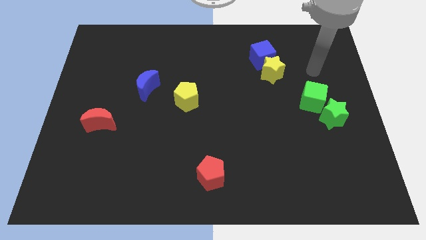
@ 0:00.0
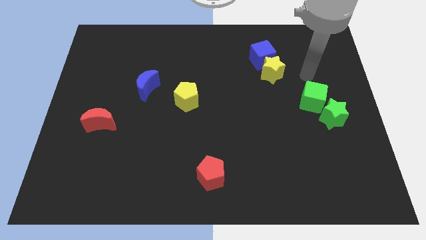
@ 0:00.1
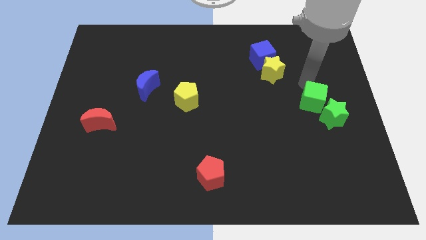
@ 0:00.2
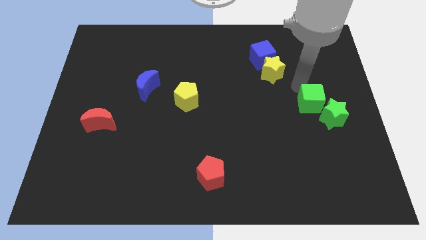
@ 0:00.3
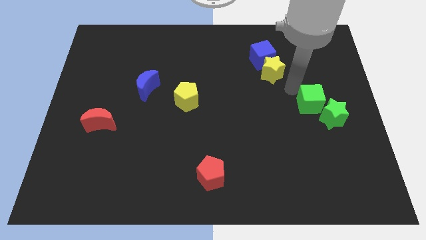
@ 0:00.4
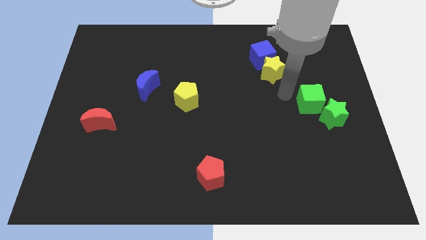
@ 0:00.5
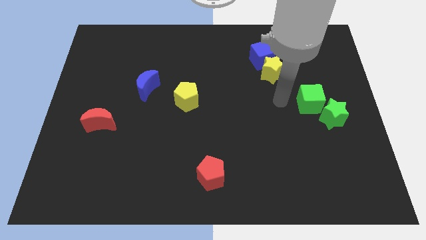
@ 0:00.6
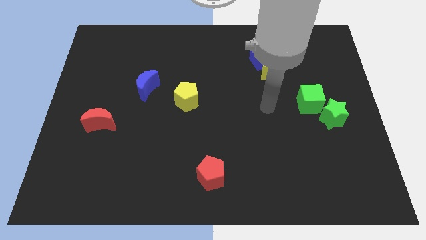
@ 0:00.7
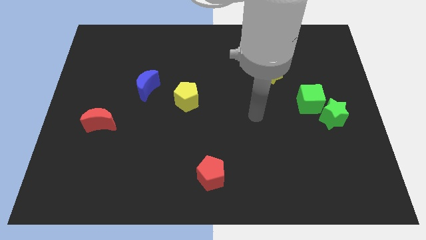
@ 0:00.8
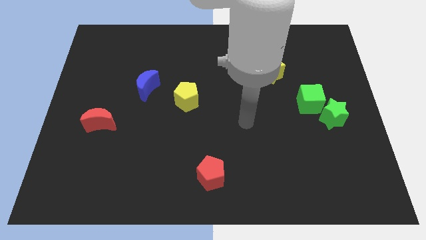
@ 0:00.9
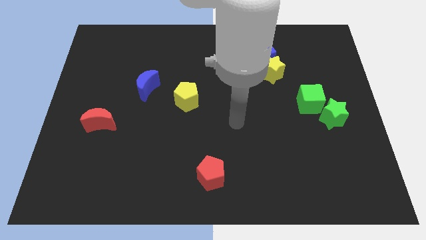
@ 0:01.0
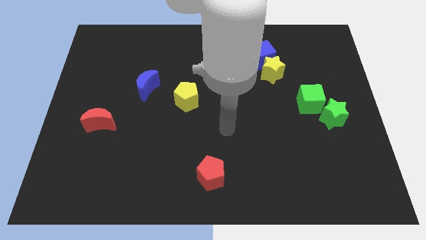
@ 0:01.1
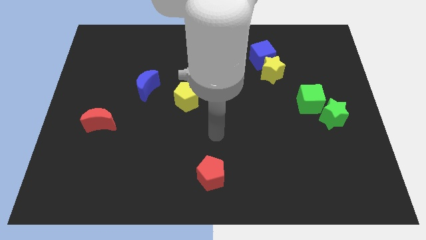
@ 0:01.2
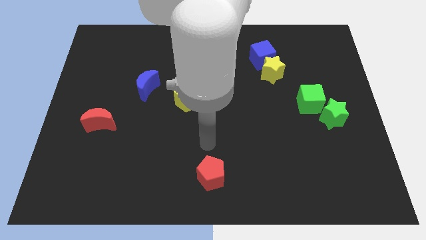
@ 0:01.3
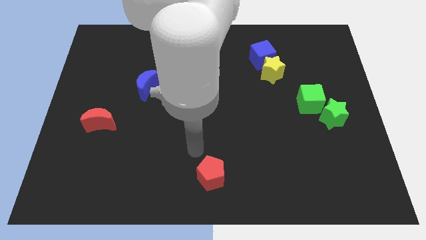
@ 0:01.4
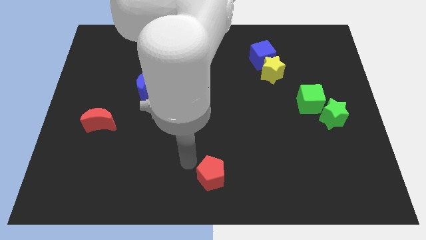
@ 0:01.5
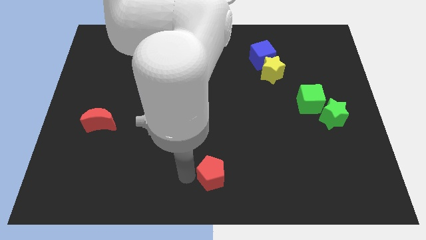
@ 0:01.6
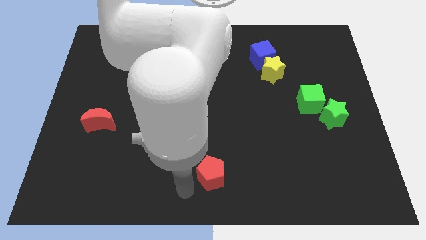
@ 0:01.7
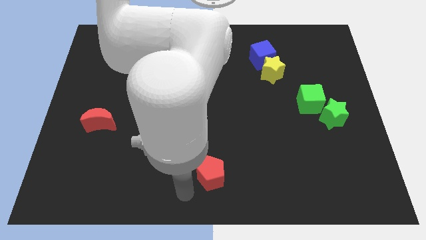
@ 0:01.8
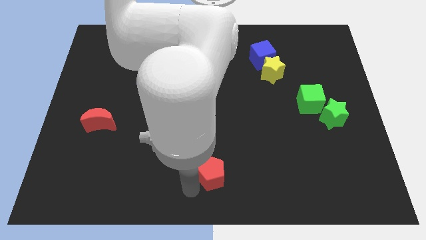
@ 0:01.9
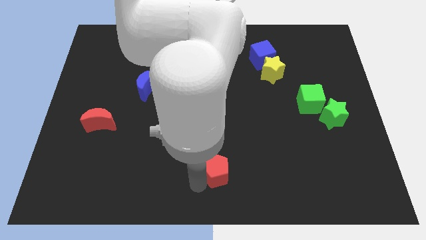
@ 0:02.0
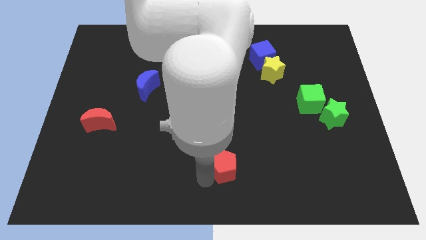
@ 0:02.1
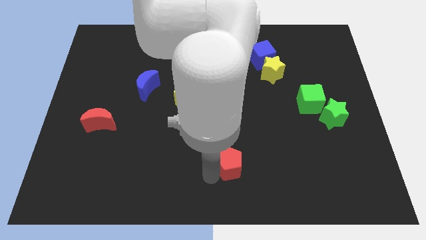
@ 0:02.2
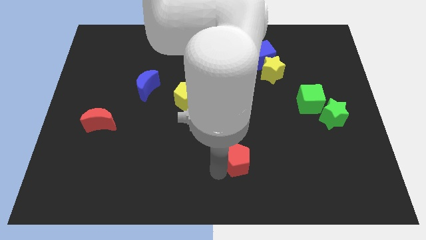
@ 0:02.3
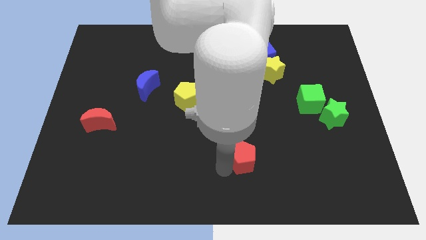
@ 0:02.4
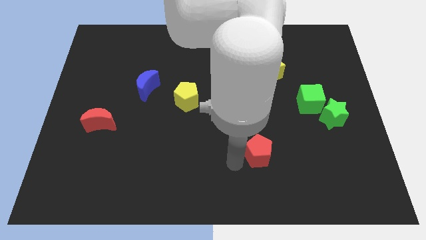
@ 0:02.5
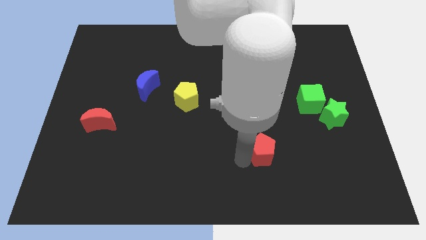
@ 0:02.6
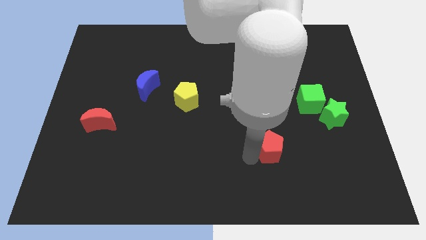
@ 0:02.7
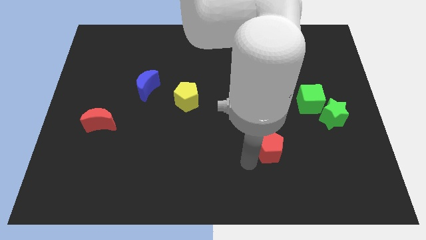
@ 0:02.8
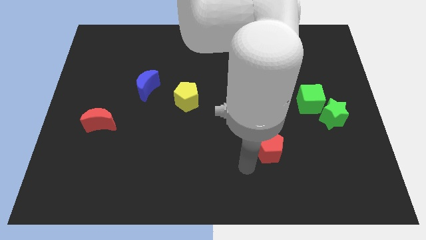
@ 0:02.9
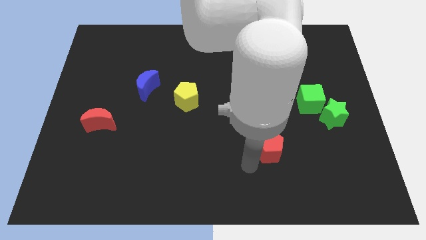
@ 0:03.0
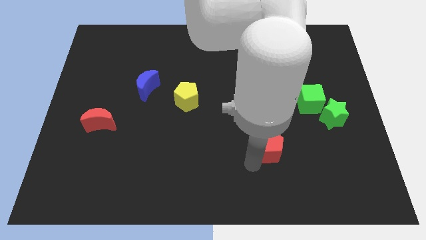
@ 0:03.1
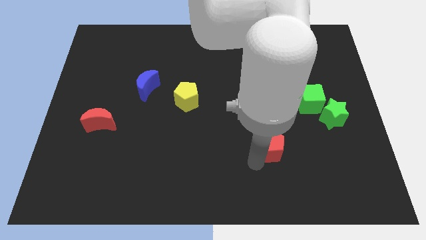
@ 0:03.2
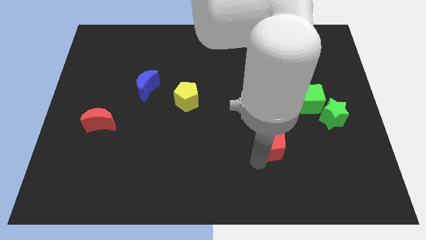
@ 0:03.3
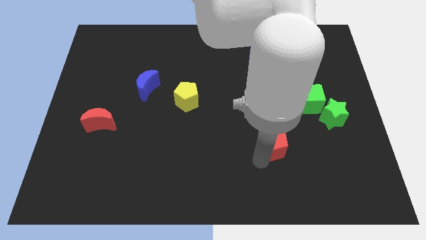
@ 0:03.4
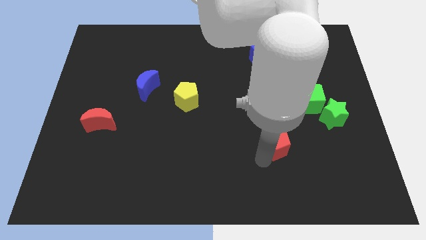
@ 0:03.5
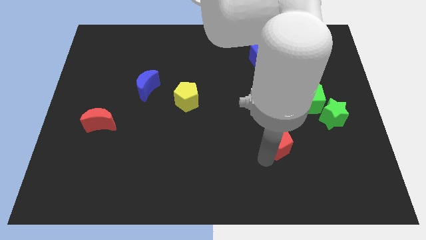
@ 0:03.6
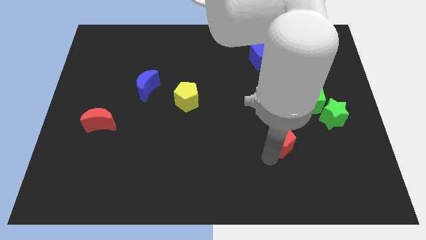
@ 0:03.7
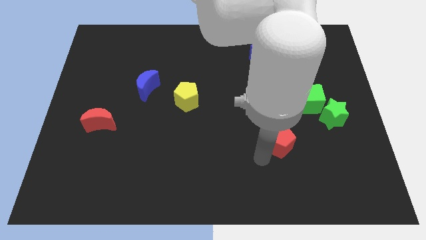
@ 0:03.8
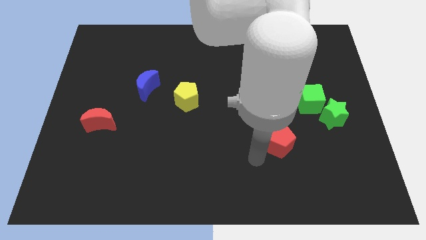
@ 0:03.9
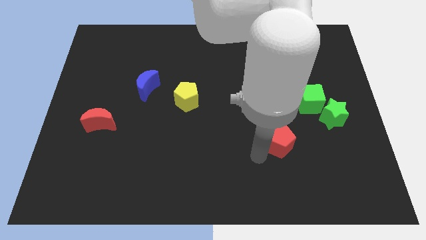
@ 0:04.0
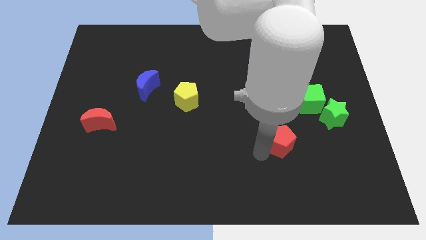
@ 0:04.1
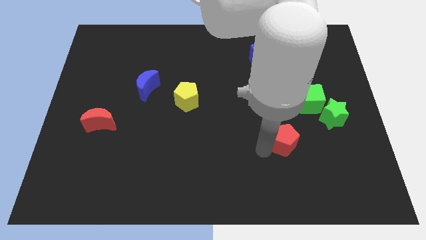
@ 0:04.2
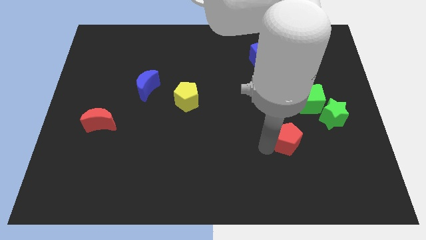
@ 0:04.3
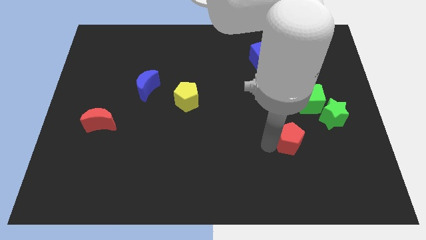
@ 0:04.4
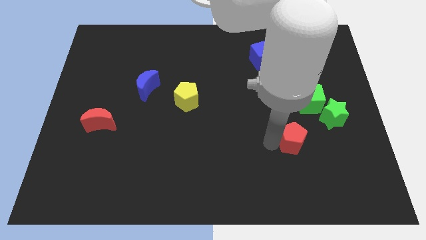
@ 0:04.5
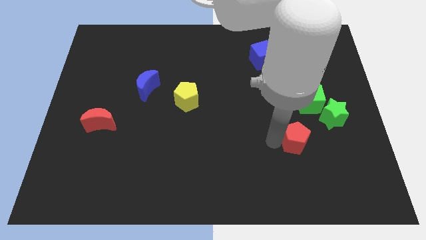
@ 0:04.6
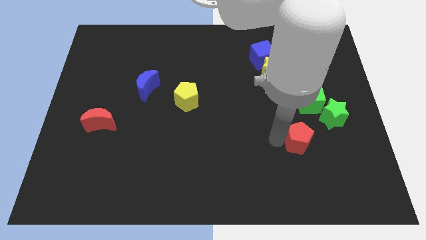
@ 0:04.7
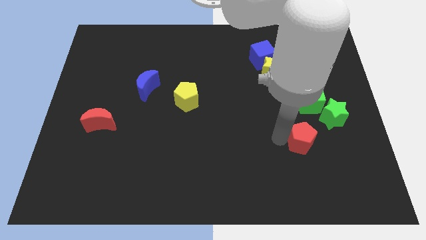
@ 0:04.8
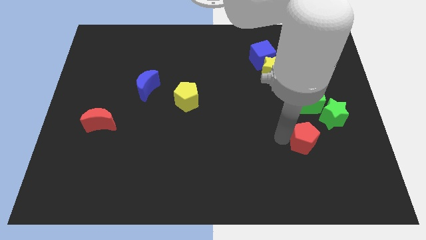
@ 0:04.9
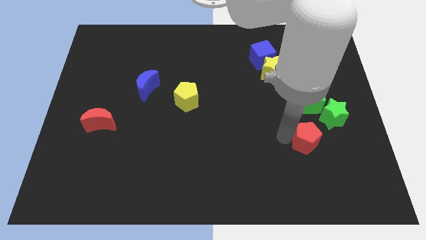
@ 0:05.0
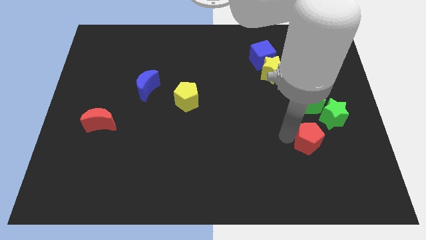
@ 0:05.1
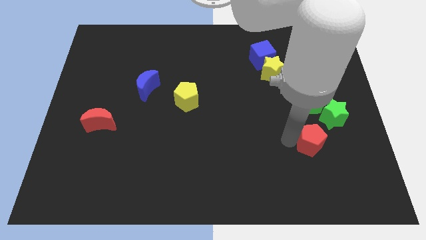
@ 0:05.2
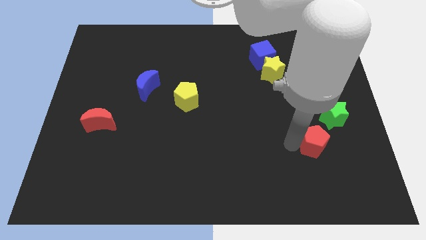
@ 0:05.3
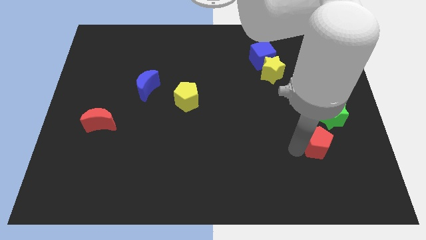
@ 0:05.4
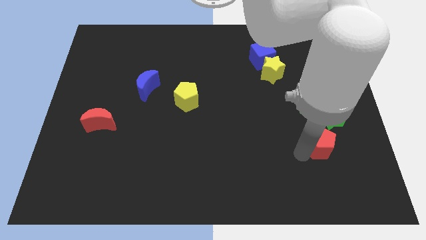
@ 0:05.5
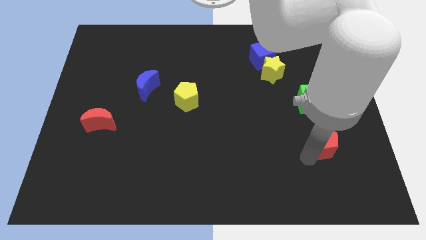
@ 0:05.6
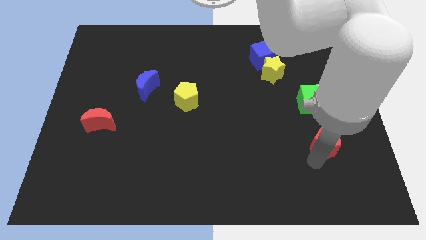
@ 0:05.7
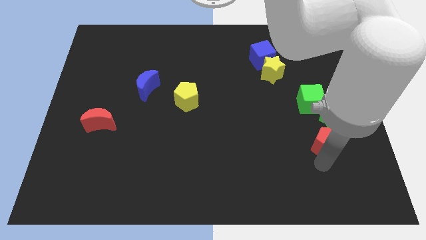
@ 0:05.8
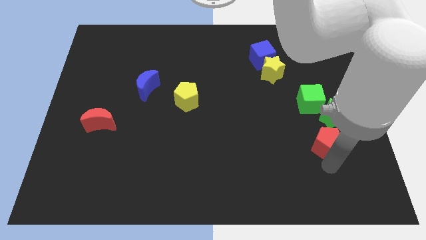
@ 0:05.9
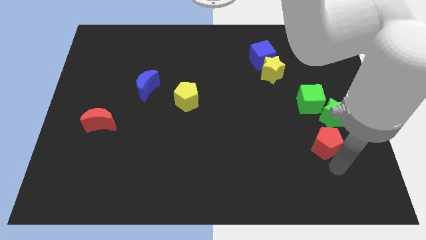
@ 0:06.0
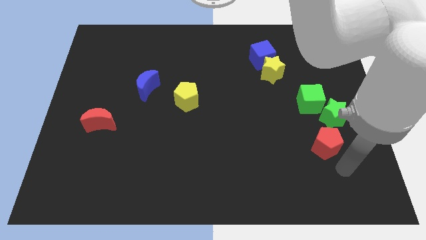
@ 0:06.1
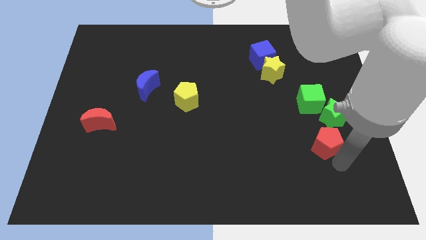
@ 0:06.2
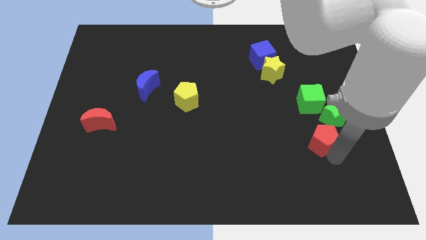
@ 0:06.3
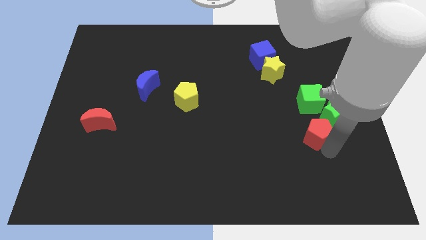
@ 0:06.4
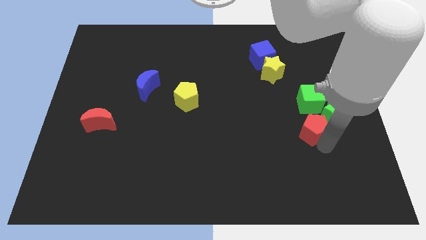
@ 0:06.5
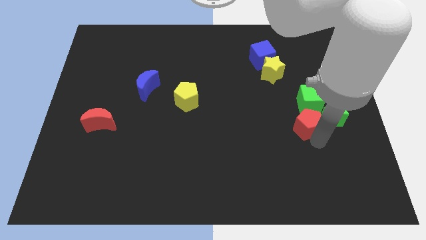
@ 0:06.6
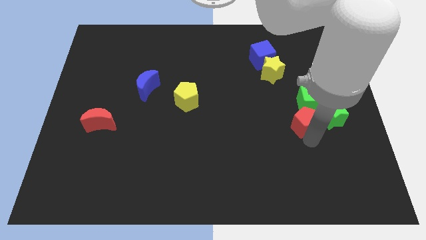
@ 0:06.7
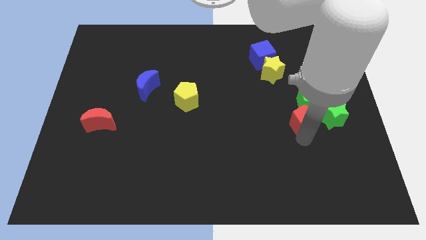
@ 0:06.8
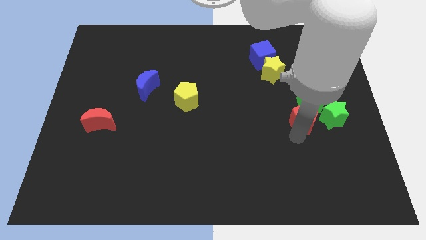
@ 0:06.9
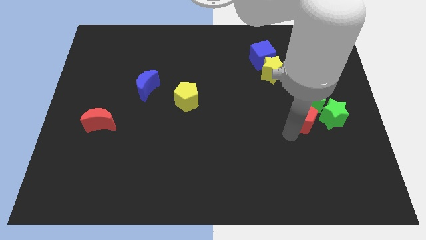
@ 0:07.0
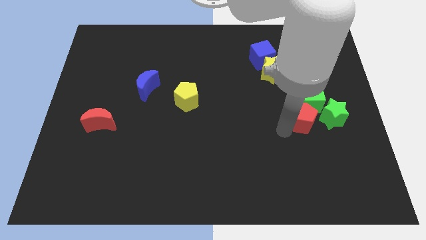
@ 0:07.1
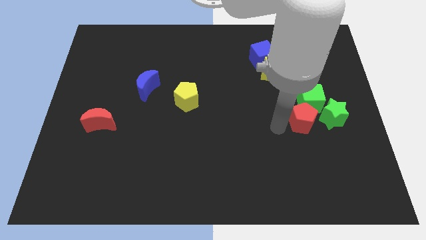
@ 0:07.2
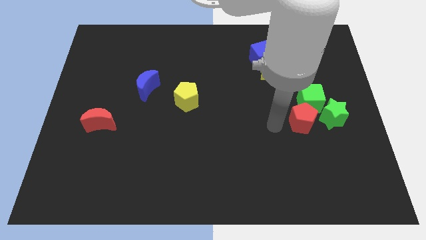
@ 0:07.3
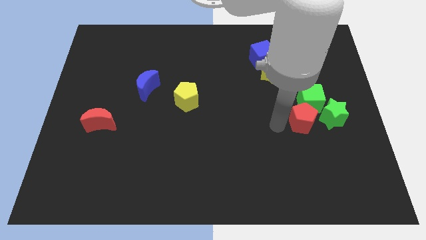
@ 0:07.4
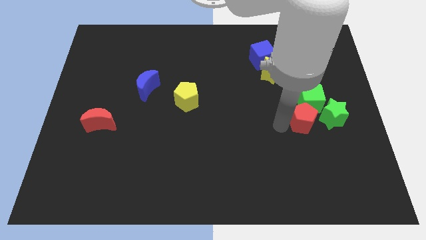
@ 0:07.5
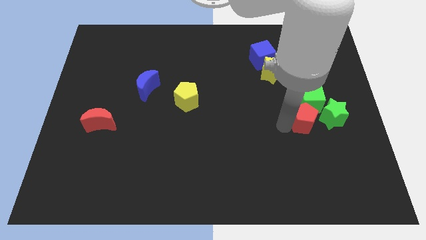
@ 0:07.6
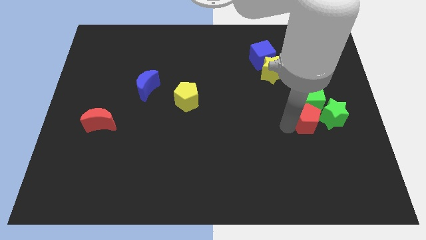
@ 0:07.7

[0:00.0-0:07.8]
move the red pentagon close to the green star
